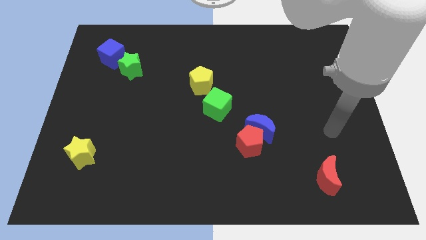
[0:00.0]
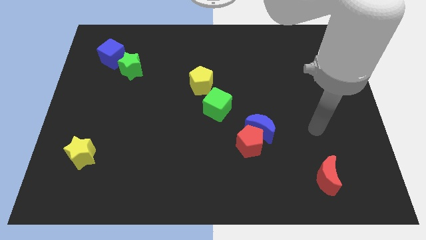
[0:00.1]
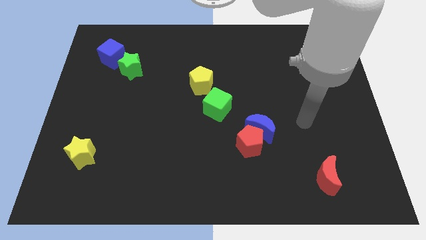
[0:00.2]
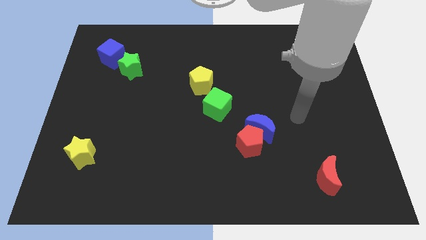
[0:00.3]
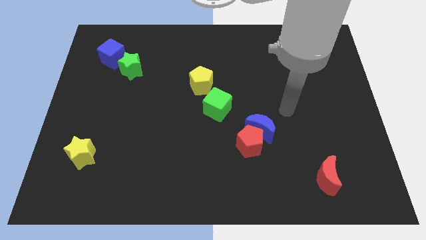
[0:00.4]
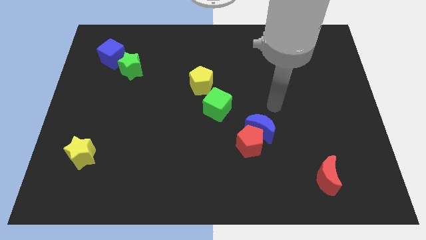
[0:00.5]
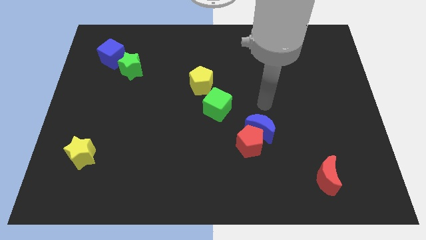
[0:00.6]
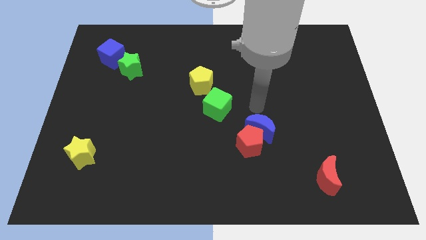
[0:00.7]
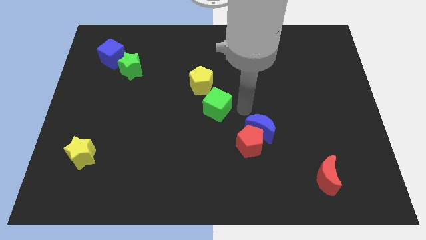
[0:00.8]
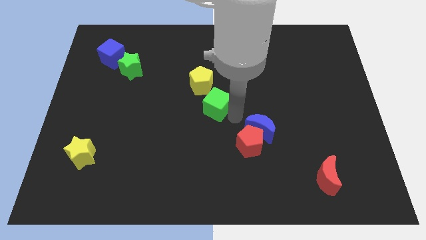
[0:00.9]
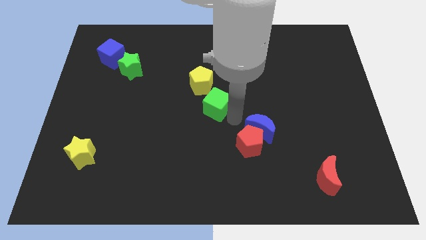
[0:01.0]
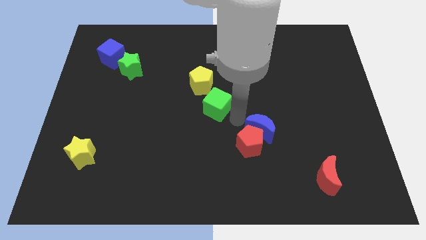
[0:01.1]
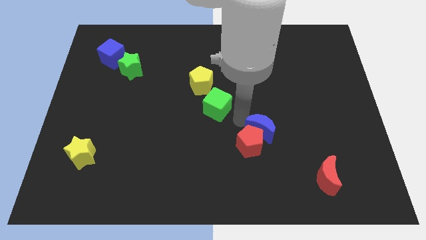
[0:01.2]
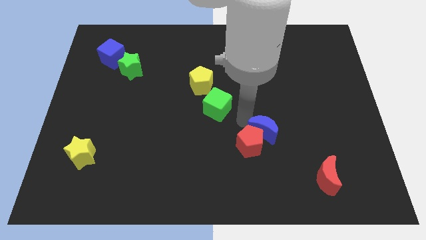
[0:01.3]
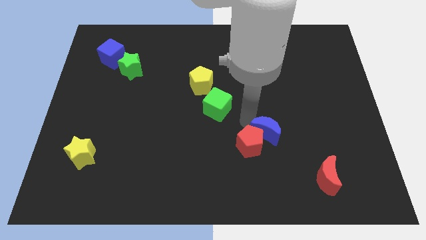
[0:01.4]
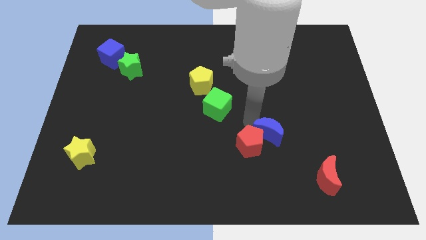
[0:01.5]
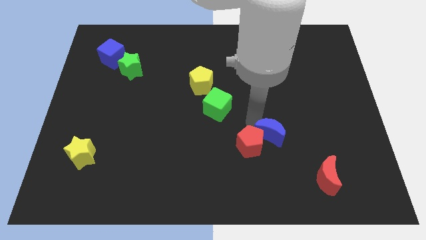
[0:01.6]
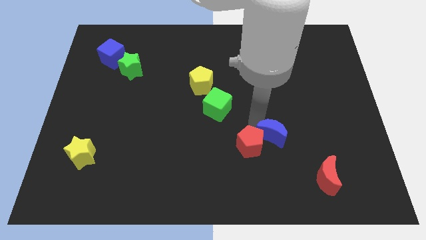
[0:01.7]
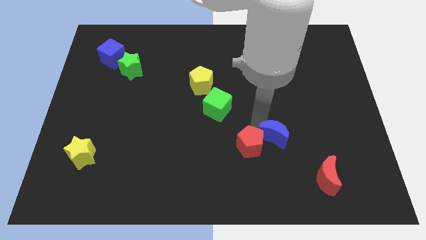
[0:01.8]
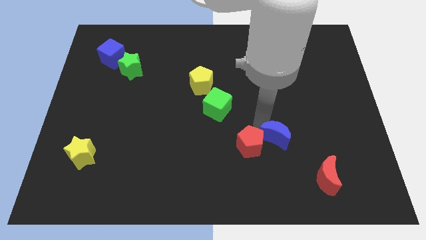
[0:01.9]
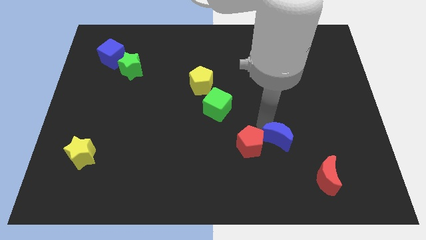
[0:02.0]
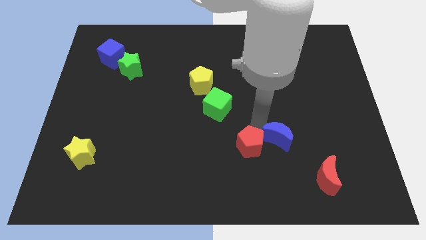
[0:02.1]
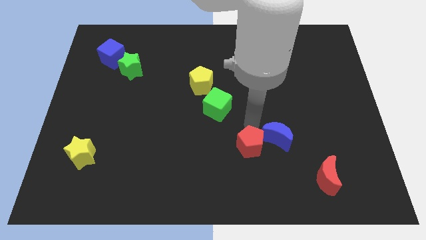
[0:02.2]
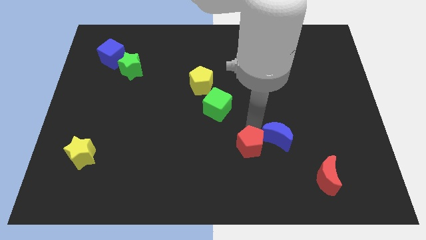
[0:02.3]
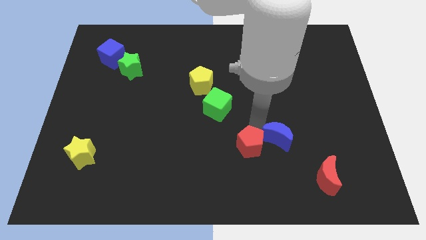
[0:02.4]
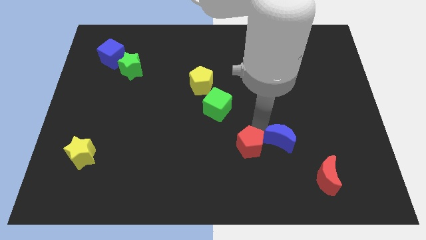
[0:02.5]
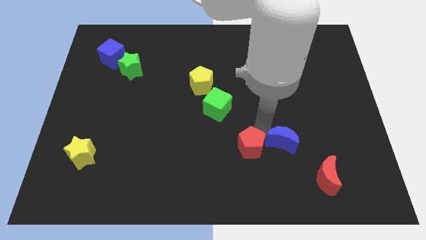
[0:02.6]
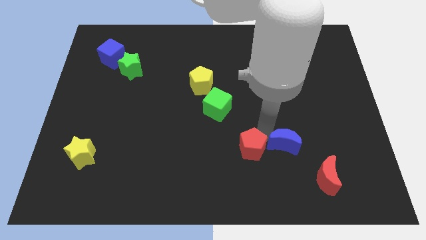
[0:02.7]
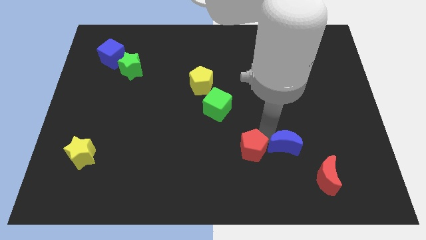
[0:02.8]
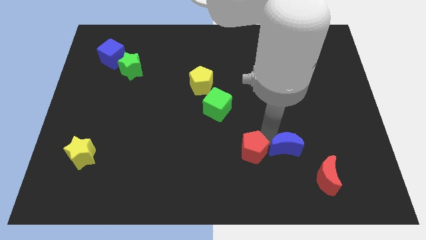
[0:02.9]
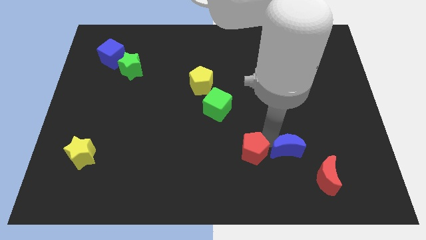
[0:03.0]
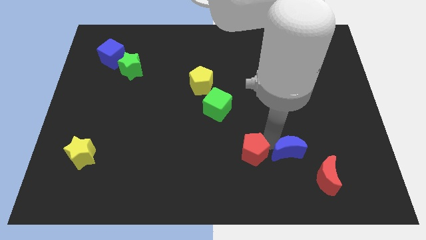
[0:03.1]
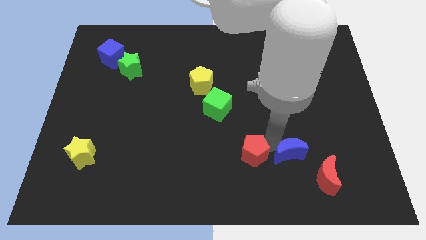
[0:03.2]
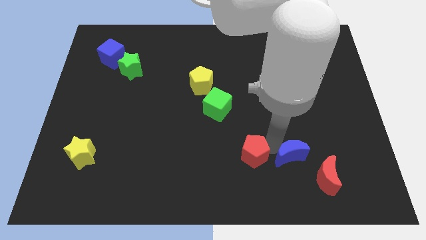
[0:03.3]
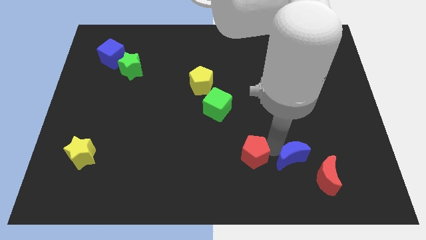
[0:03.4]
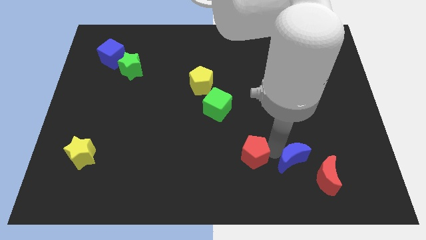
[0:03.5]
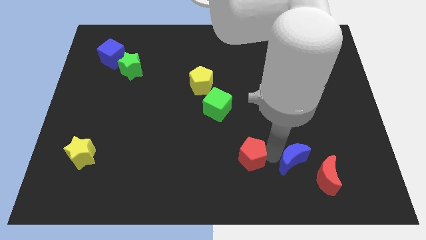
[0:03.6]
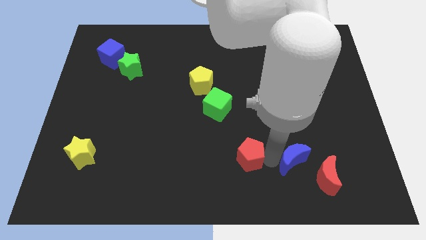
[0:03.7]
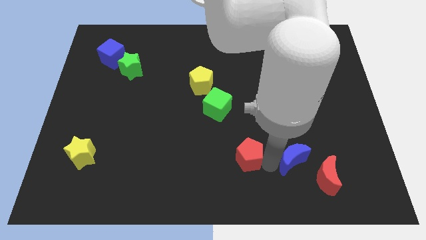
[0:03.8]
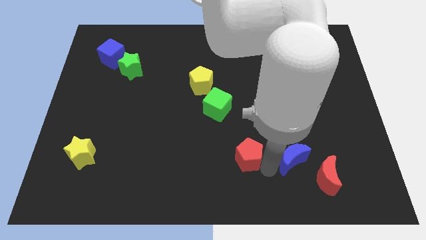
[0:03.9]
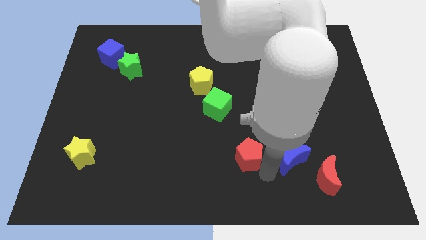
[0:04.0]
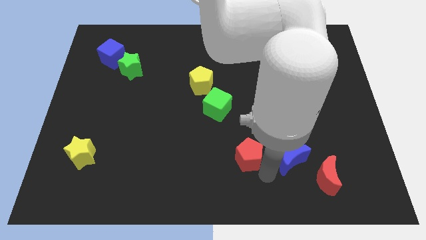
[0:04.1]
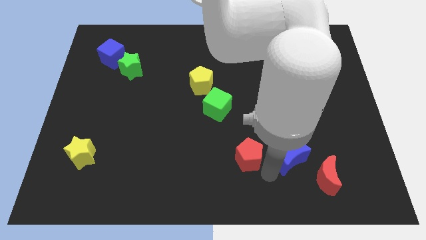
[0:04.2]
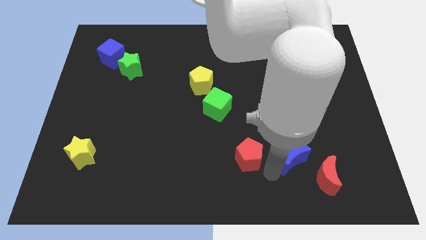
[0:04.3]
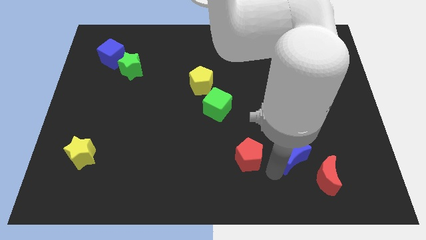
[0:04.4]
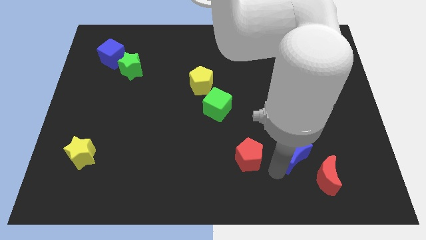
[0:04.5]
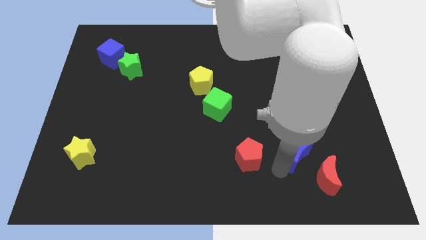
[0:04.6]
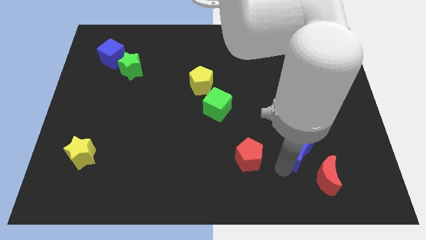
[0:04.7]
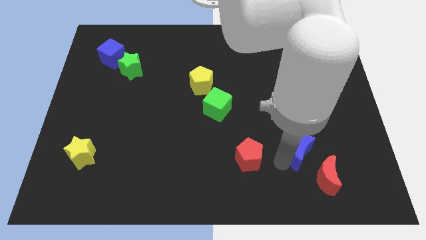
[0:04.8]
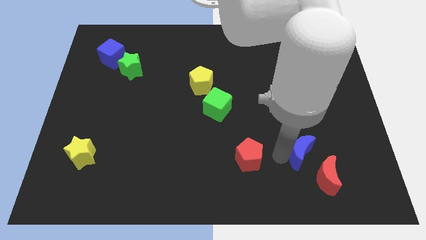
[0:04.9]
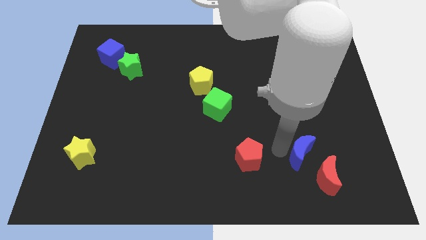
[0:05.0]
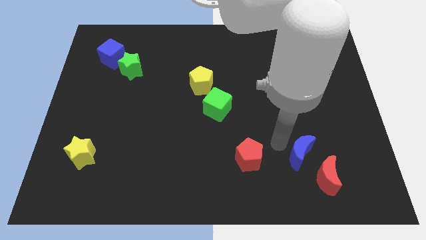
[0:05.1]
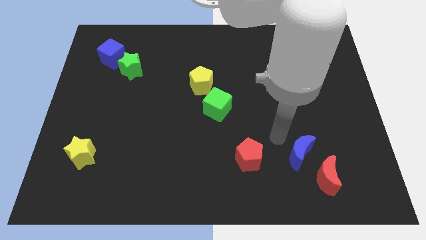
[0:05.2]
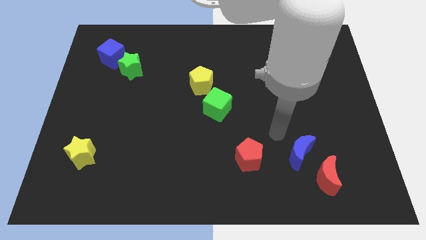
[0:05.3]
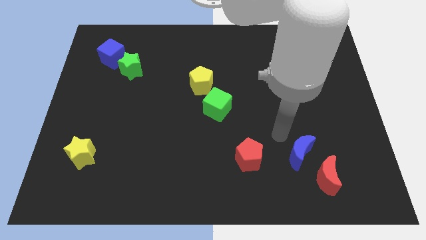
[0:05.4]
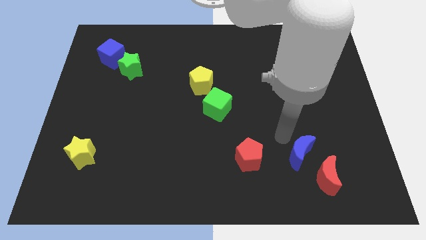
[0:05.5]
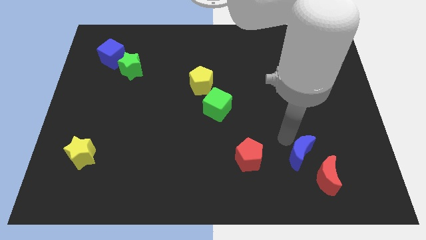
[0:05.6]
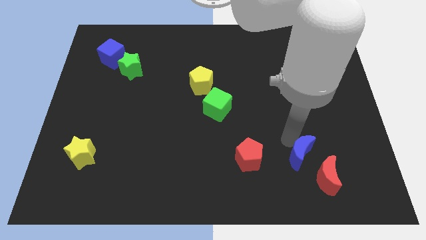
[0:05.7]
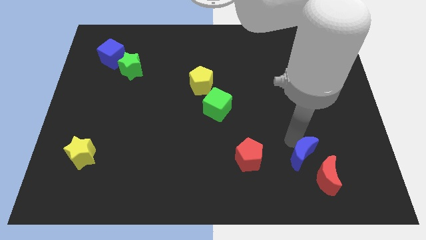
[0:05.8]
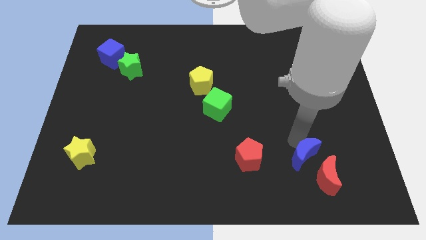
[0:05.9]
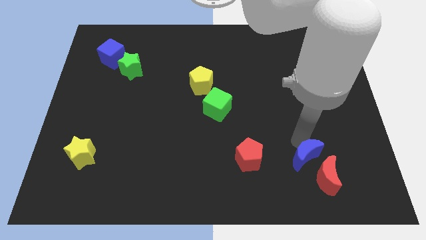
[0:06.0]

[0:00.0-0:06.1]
put the blue moon to the red moon

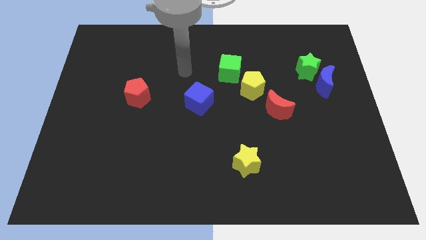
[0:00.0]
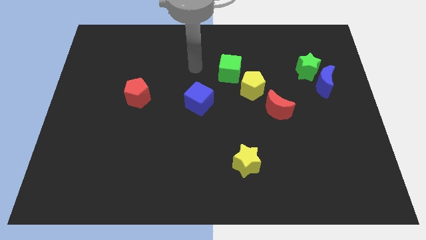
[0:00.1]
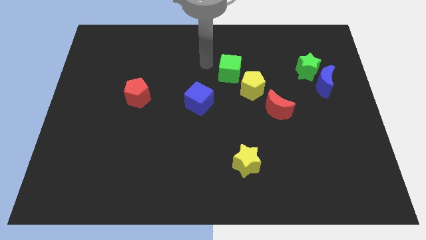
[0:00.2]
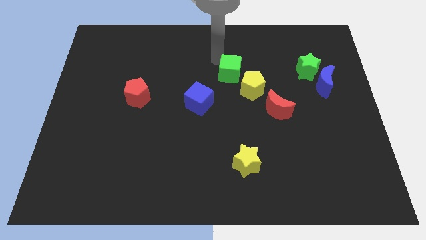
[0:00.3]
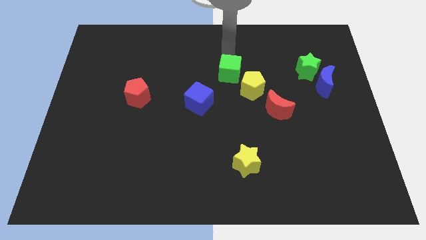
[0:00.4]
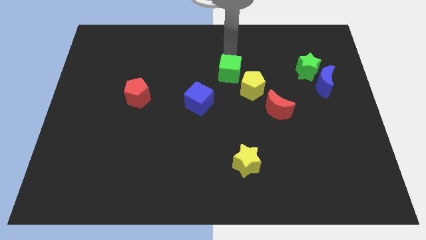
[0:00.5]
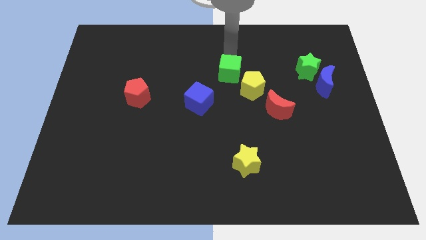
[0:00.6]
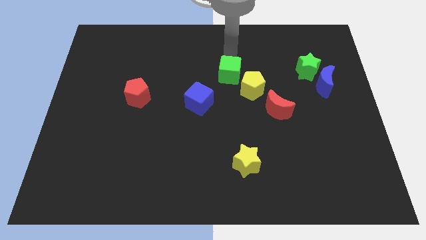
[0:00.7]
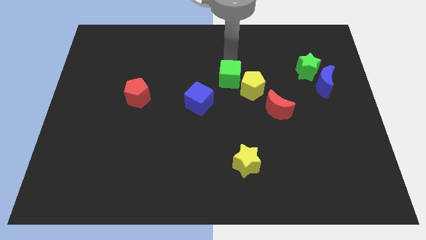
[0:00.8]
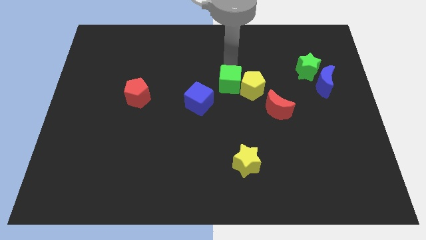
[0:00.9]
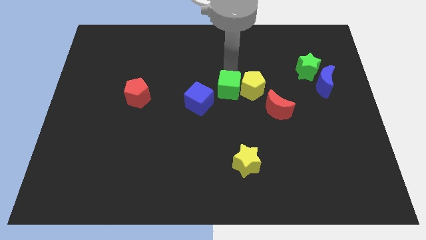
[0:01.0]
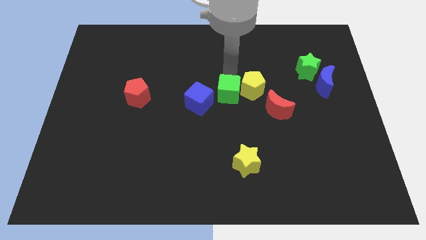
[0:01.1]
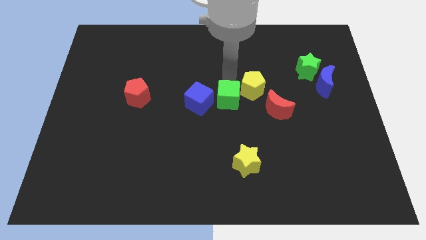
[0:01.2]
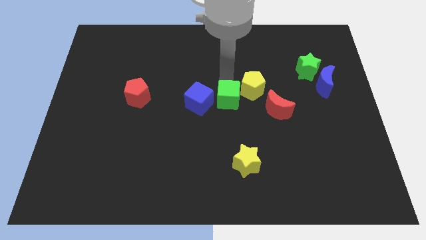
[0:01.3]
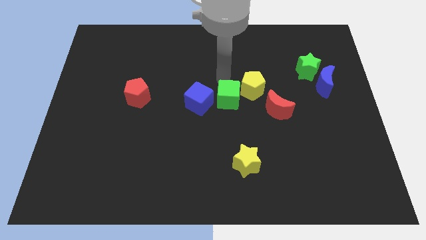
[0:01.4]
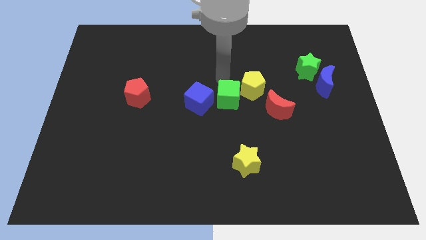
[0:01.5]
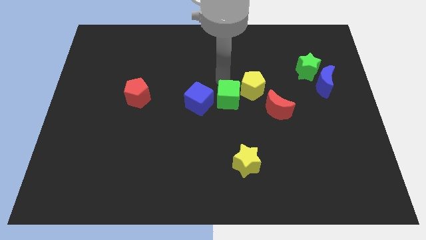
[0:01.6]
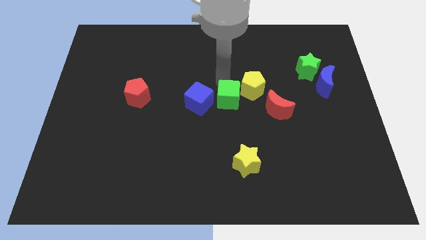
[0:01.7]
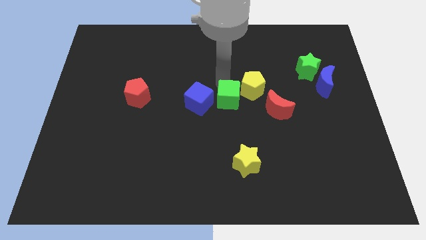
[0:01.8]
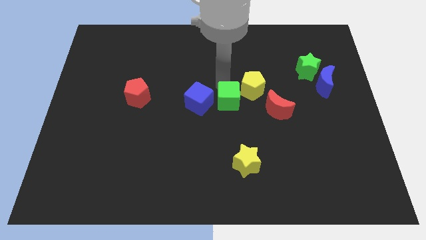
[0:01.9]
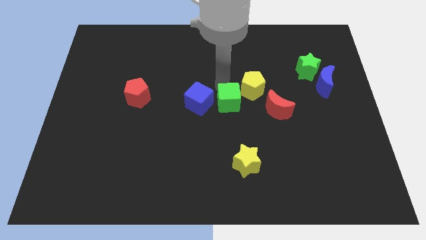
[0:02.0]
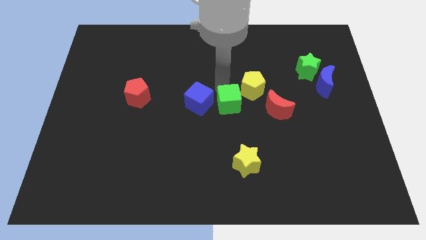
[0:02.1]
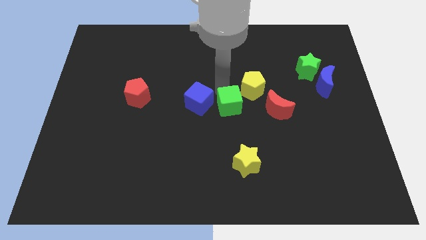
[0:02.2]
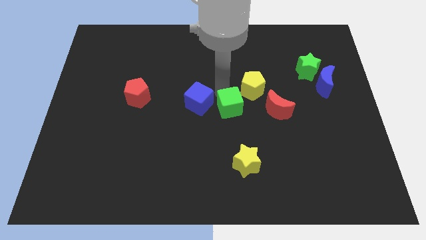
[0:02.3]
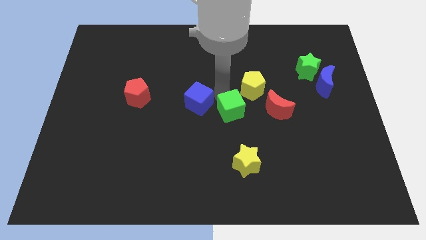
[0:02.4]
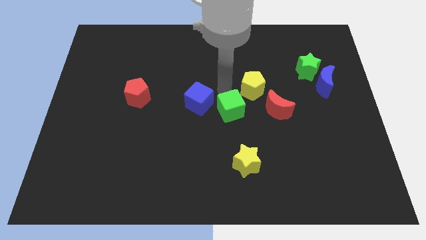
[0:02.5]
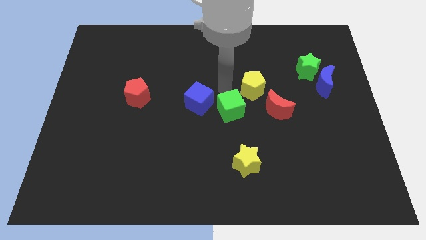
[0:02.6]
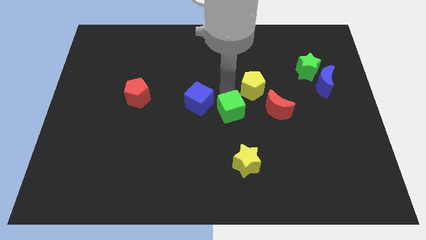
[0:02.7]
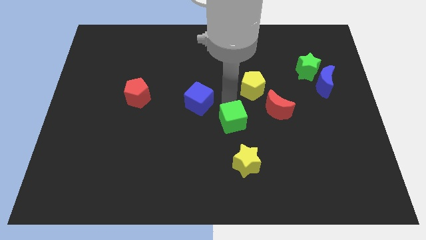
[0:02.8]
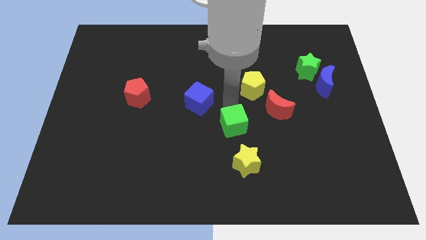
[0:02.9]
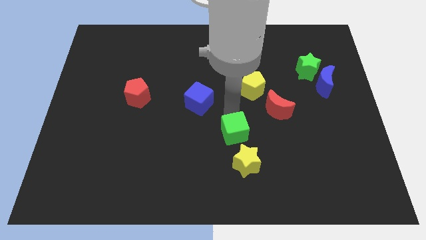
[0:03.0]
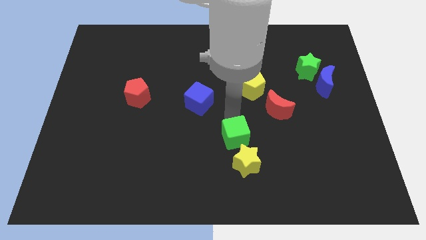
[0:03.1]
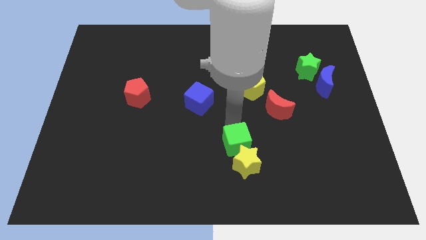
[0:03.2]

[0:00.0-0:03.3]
slide the green cube next to the yellow star
